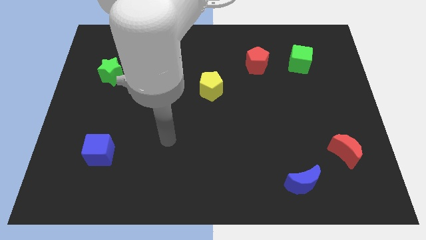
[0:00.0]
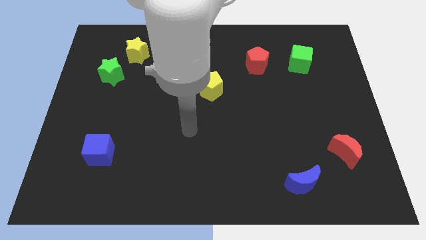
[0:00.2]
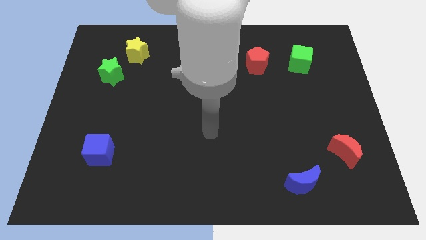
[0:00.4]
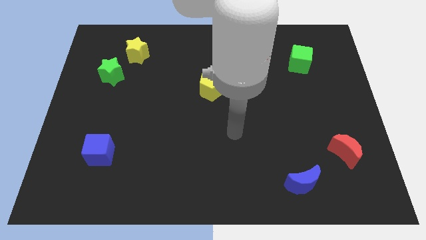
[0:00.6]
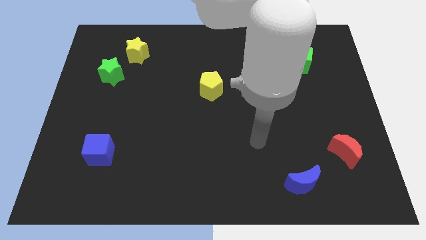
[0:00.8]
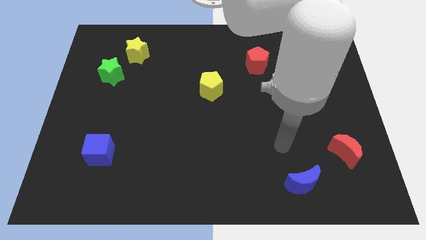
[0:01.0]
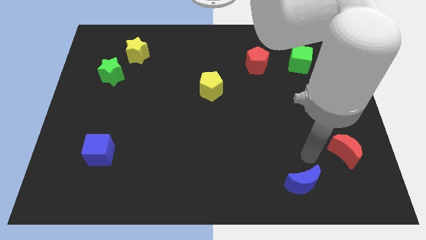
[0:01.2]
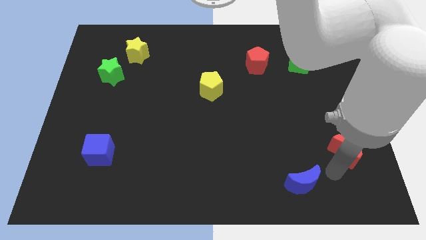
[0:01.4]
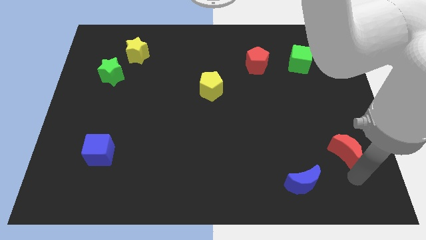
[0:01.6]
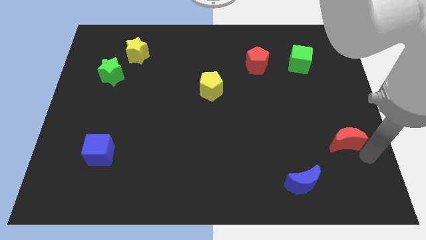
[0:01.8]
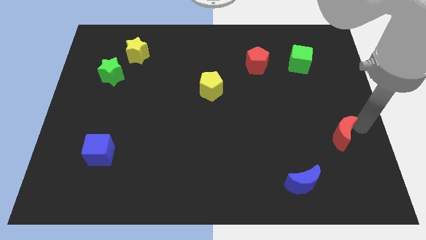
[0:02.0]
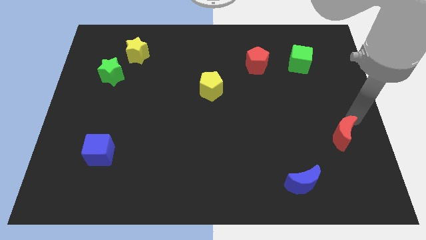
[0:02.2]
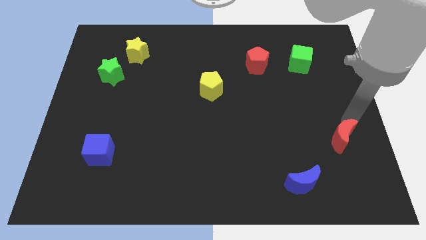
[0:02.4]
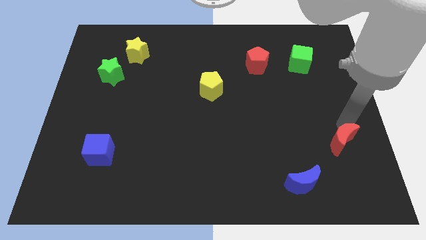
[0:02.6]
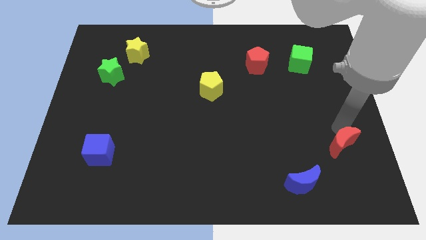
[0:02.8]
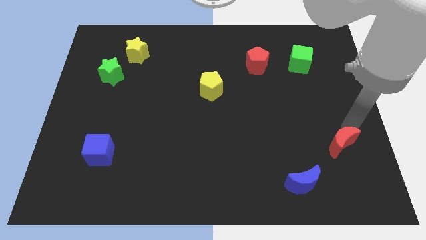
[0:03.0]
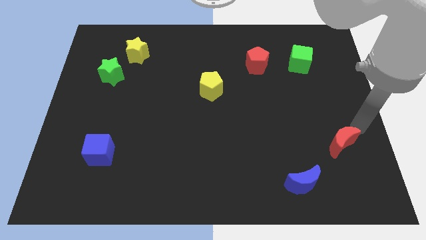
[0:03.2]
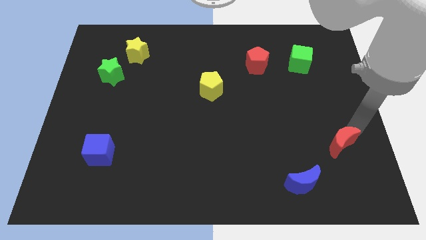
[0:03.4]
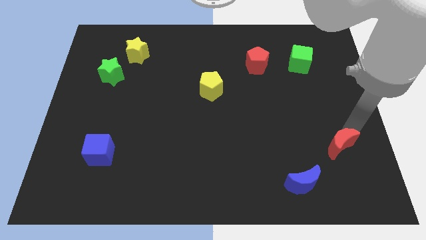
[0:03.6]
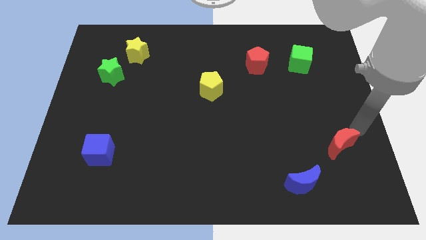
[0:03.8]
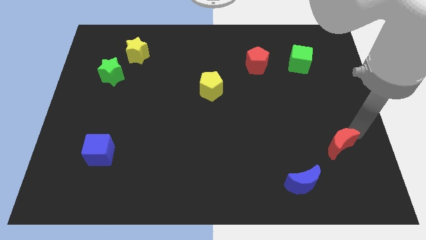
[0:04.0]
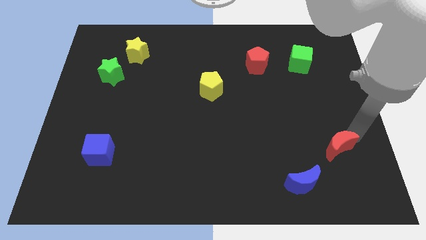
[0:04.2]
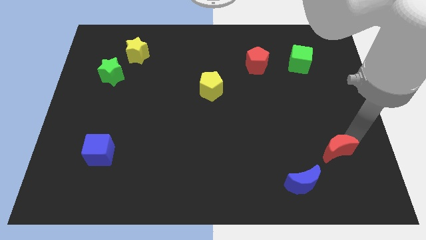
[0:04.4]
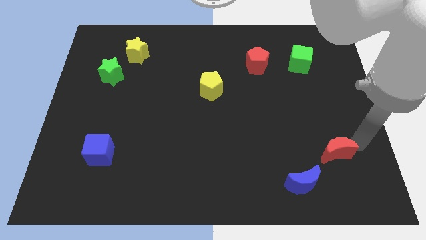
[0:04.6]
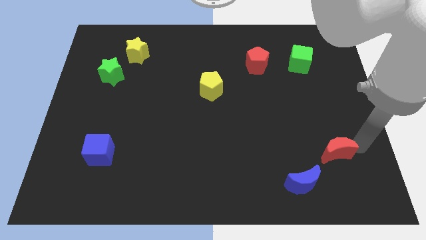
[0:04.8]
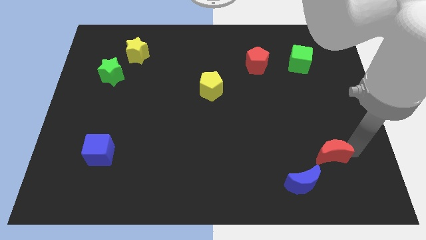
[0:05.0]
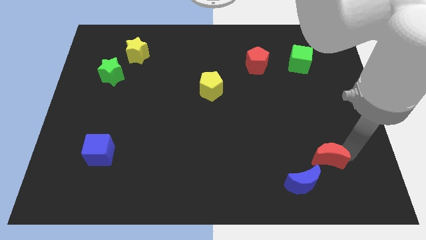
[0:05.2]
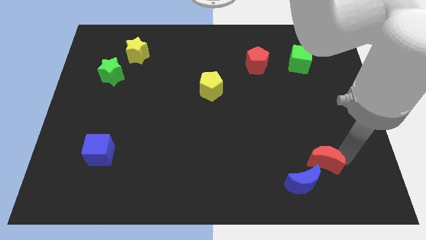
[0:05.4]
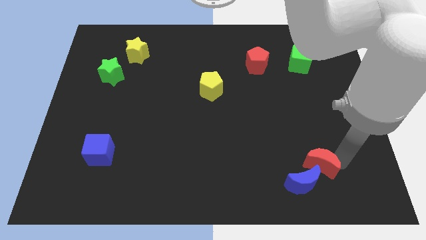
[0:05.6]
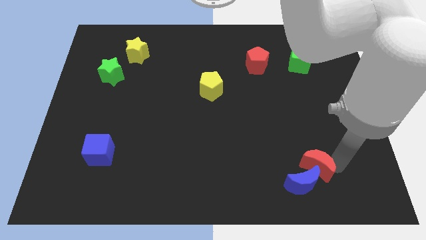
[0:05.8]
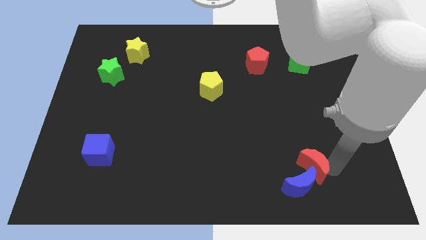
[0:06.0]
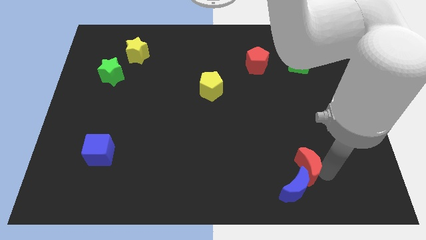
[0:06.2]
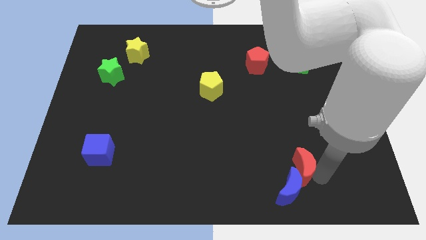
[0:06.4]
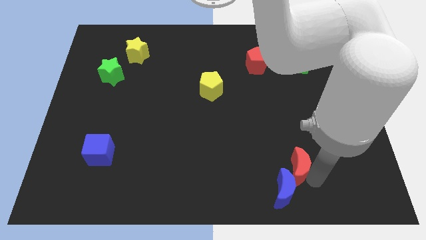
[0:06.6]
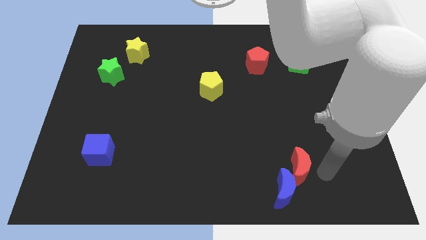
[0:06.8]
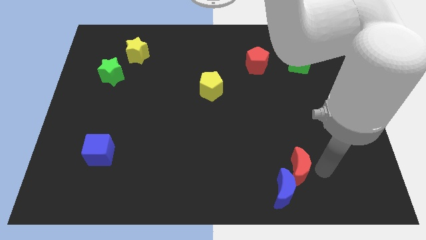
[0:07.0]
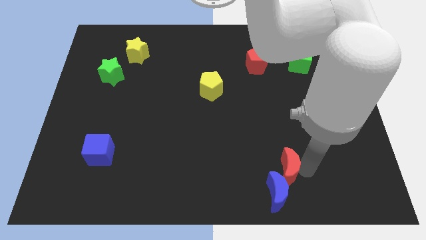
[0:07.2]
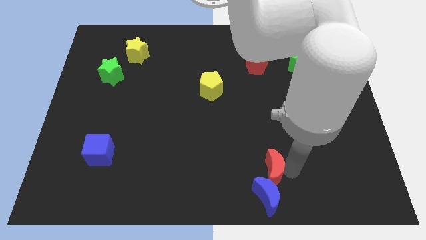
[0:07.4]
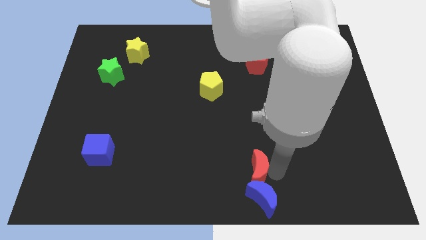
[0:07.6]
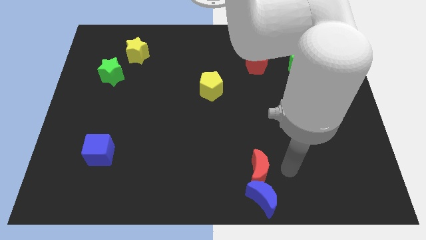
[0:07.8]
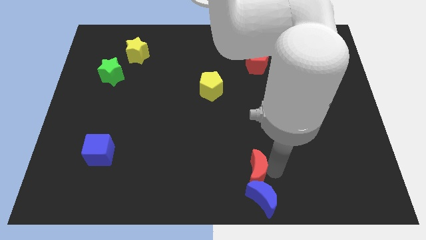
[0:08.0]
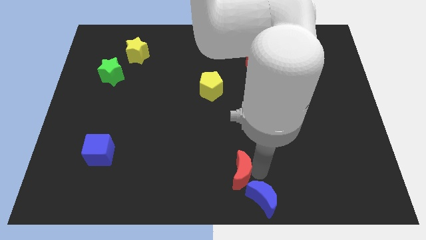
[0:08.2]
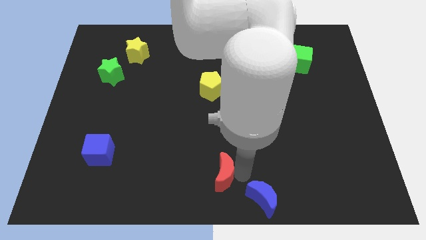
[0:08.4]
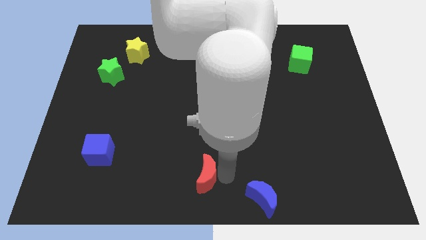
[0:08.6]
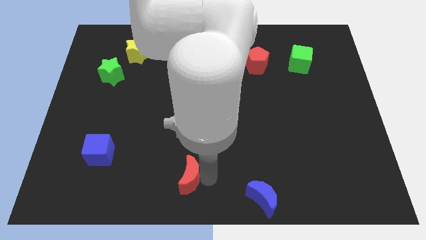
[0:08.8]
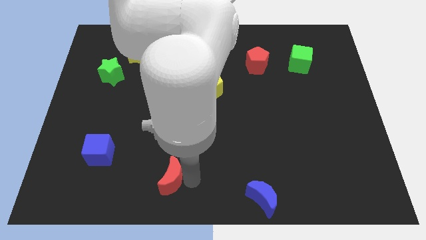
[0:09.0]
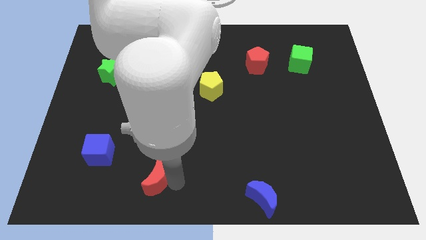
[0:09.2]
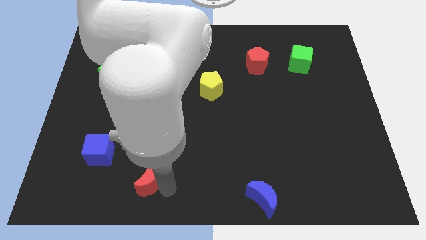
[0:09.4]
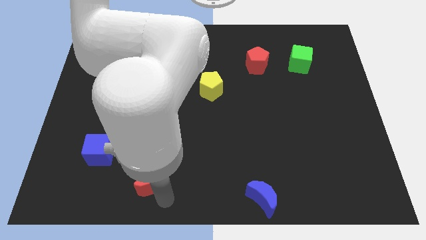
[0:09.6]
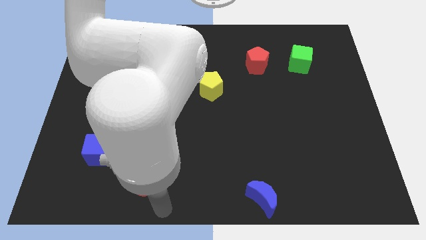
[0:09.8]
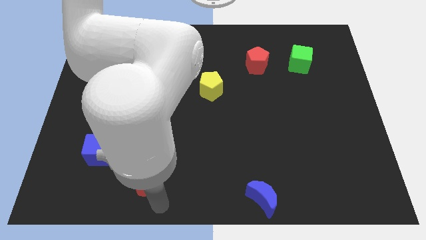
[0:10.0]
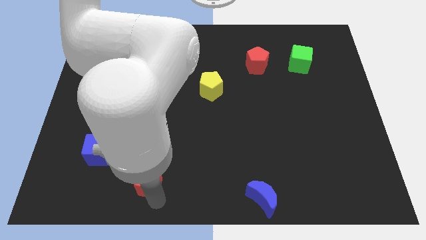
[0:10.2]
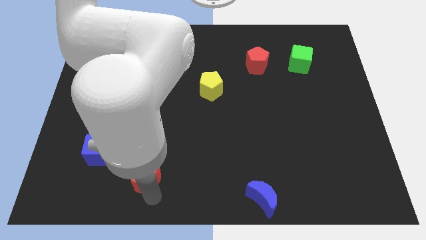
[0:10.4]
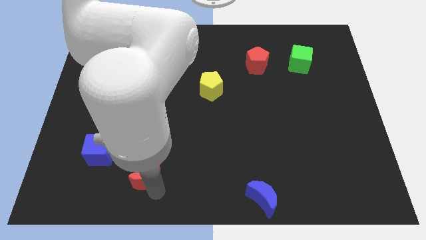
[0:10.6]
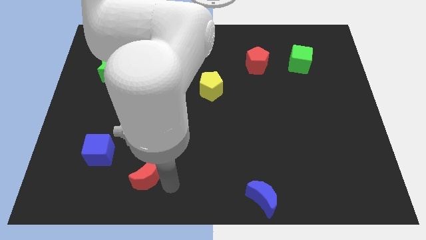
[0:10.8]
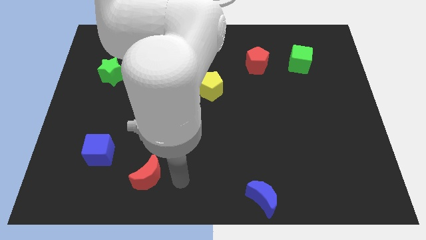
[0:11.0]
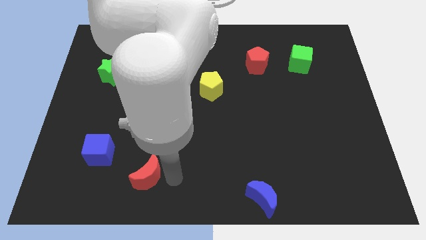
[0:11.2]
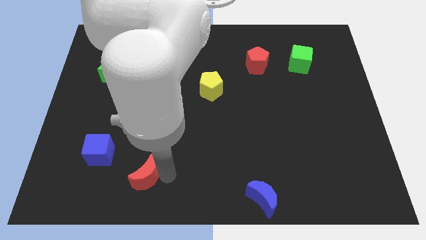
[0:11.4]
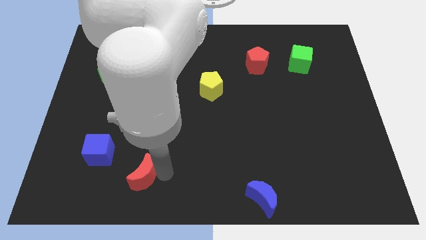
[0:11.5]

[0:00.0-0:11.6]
put the red moon diagonally down and to the right of the blue cube

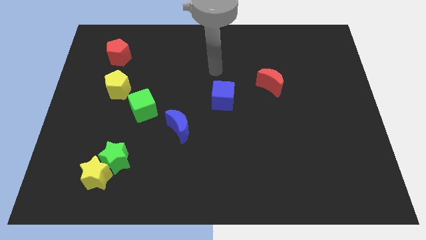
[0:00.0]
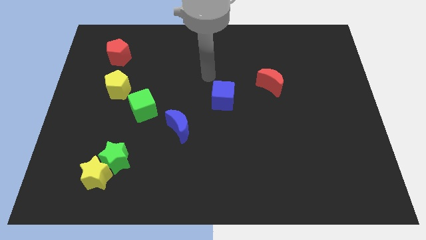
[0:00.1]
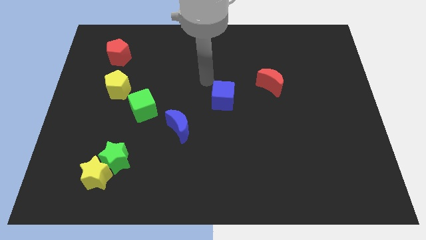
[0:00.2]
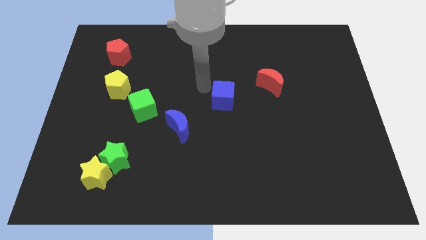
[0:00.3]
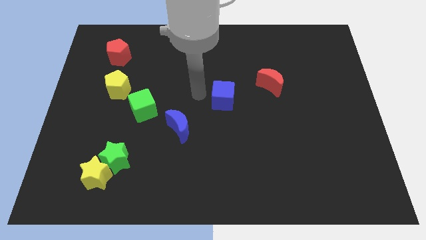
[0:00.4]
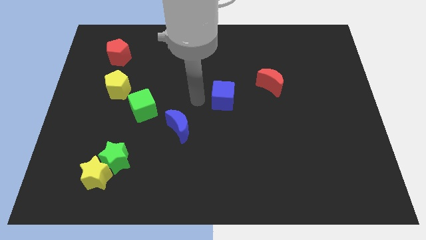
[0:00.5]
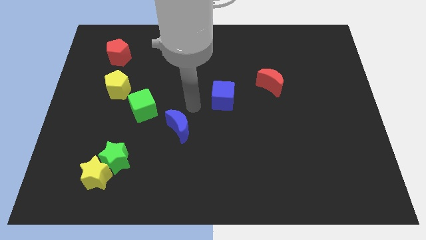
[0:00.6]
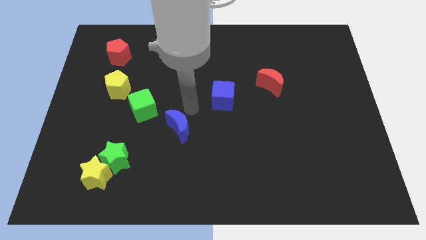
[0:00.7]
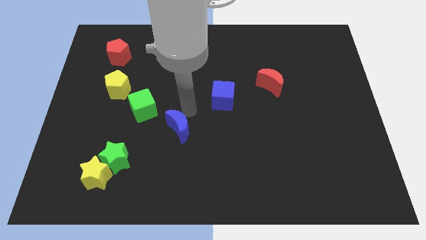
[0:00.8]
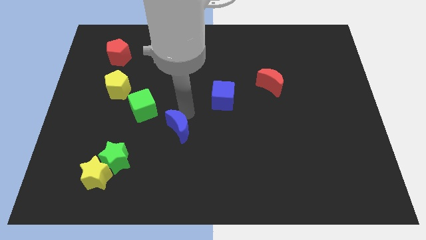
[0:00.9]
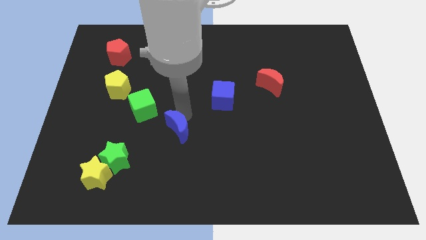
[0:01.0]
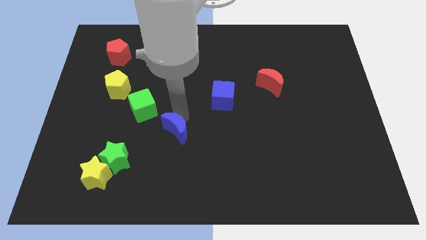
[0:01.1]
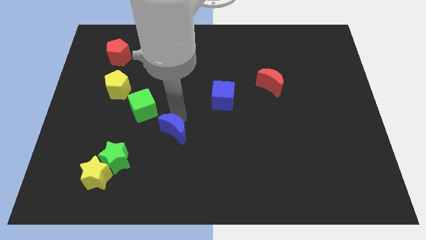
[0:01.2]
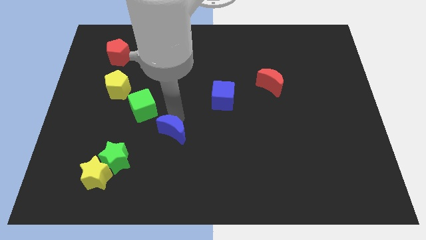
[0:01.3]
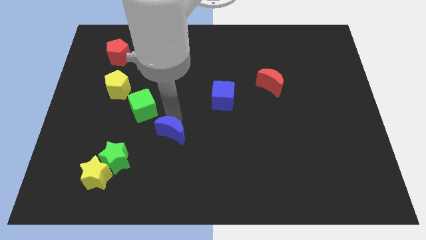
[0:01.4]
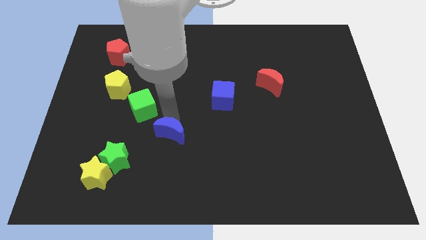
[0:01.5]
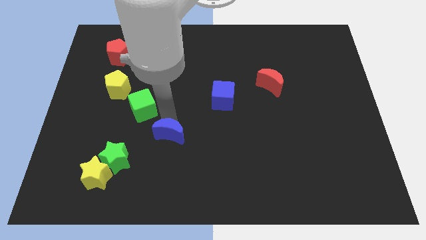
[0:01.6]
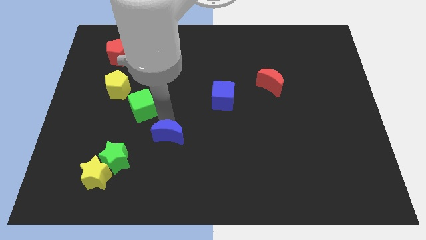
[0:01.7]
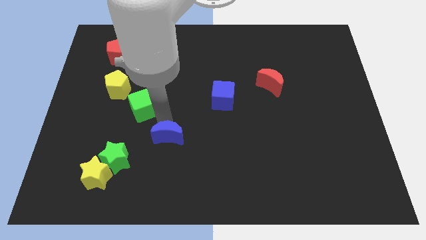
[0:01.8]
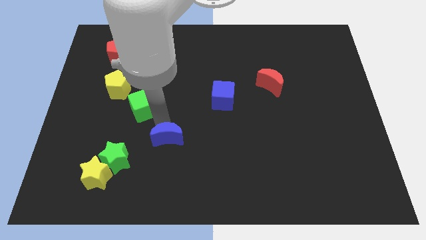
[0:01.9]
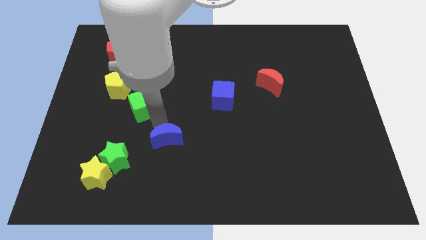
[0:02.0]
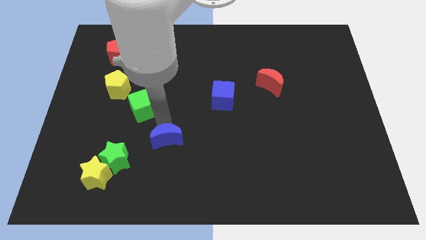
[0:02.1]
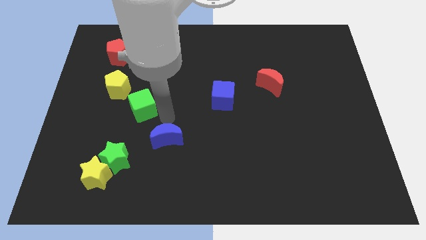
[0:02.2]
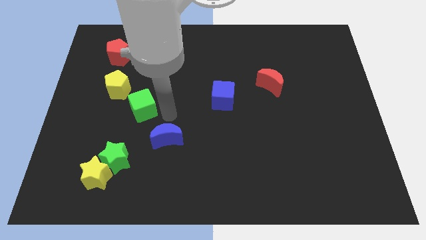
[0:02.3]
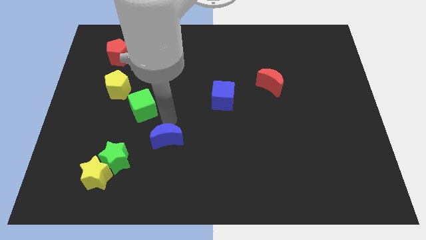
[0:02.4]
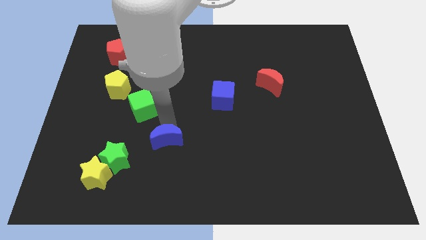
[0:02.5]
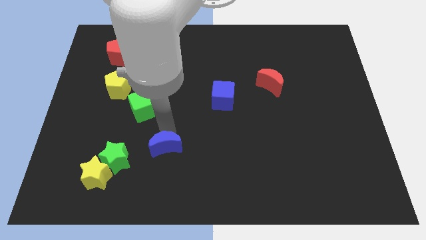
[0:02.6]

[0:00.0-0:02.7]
push the blue moon to the right side of the green star
